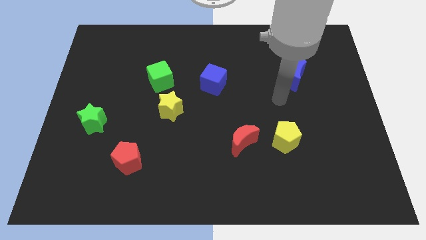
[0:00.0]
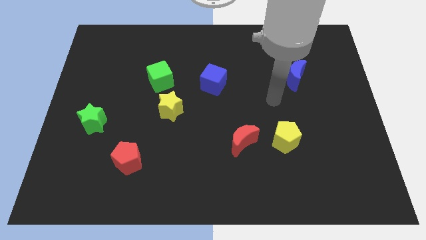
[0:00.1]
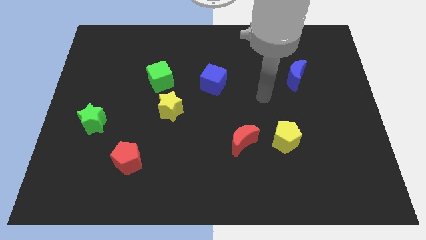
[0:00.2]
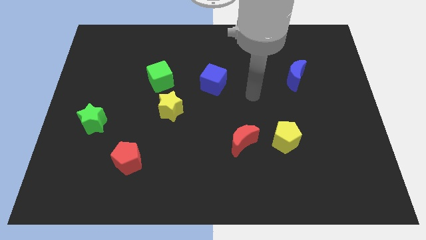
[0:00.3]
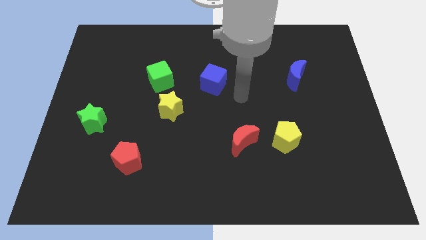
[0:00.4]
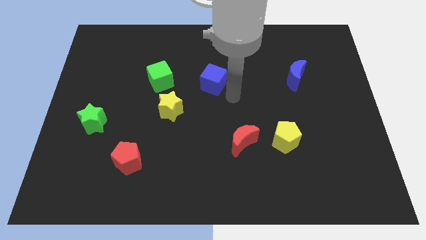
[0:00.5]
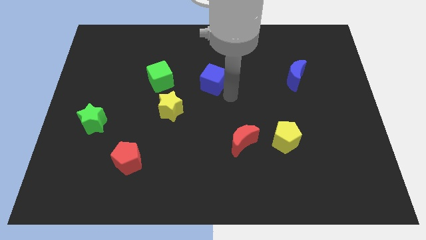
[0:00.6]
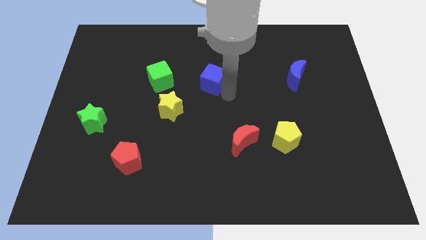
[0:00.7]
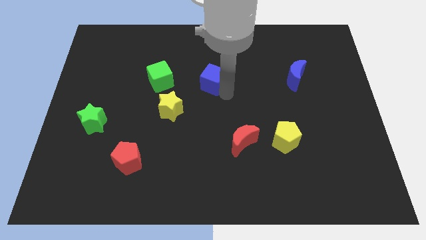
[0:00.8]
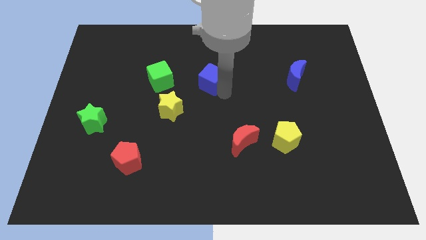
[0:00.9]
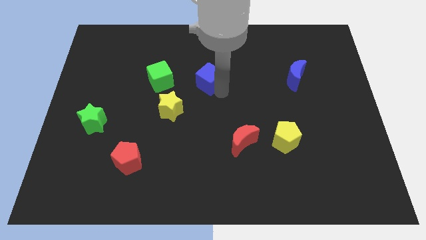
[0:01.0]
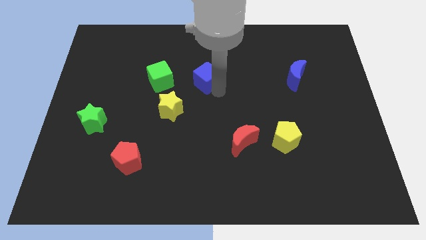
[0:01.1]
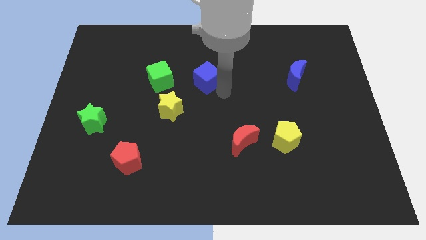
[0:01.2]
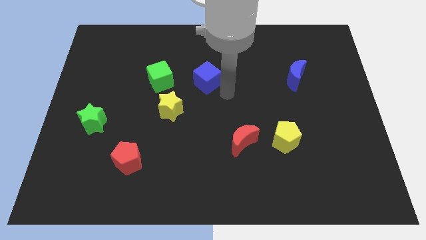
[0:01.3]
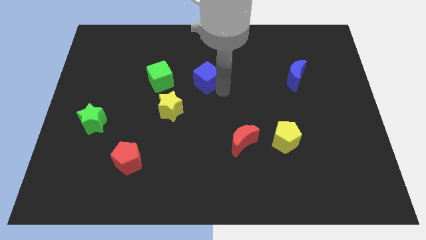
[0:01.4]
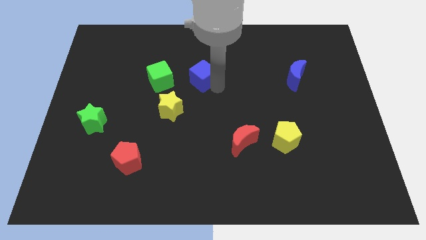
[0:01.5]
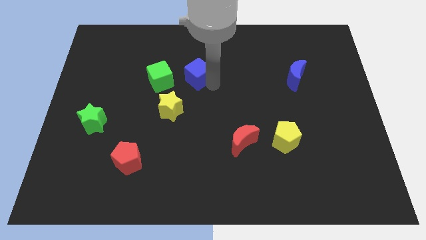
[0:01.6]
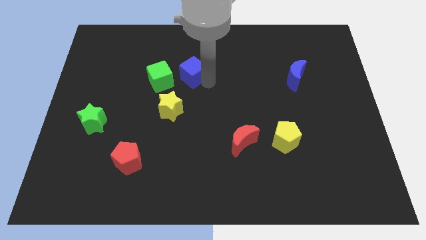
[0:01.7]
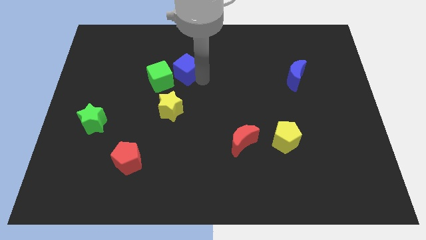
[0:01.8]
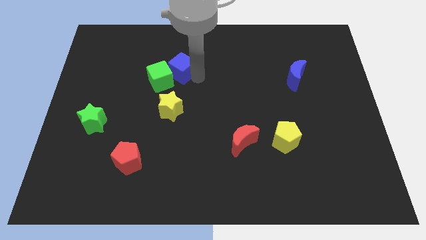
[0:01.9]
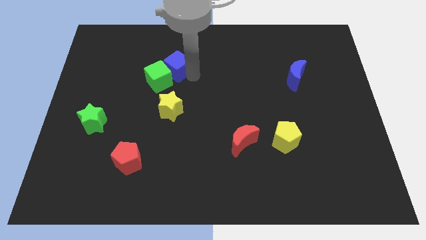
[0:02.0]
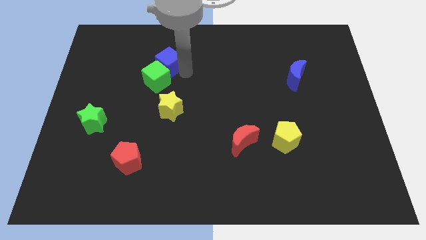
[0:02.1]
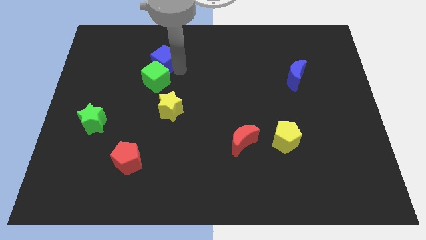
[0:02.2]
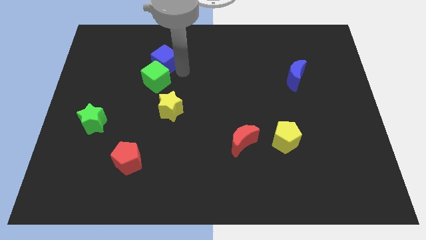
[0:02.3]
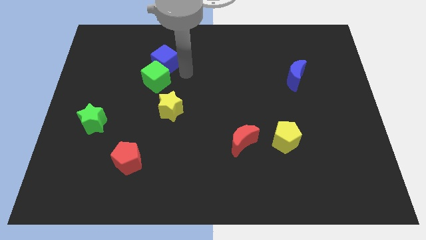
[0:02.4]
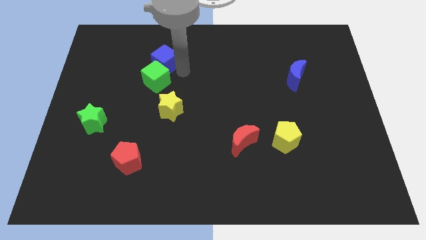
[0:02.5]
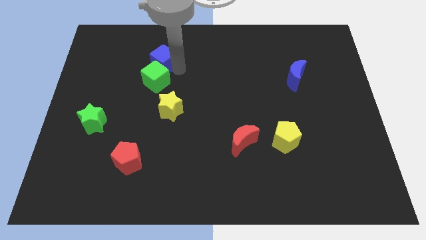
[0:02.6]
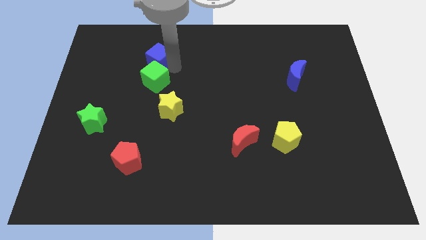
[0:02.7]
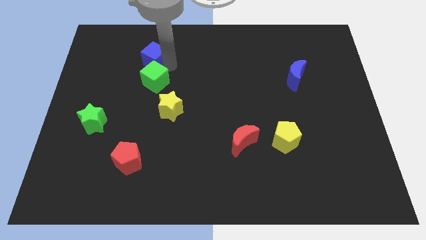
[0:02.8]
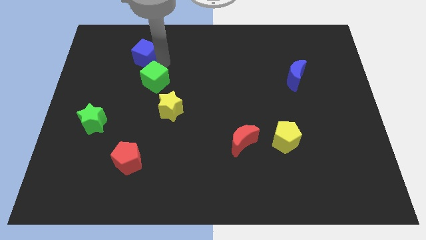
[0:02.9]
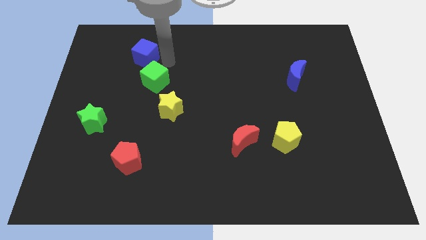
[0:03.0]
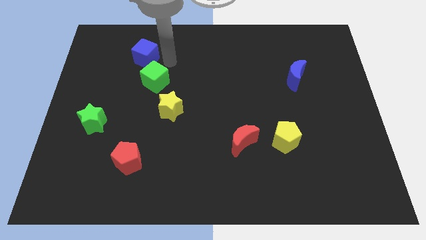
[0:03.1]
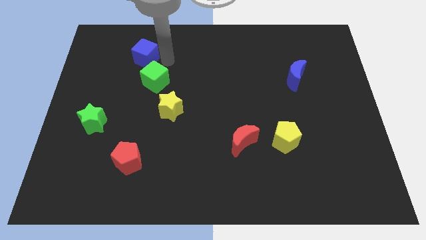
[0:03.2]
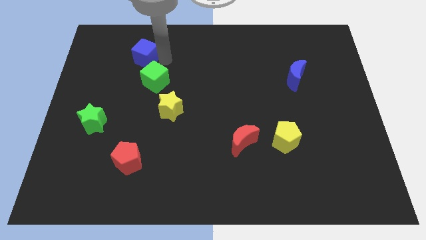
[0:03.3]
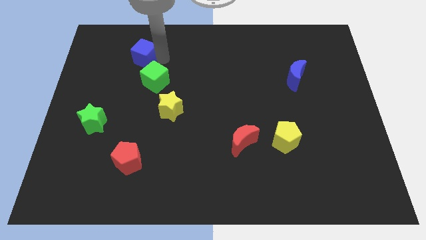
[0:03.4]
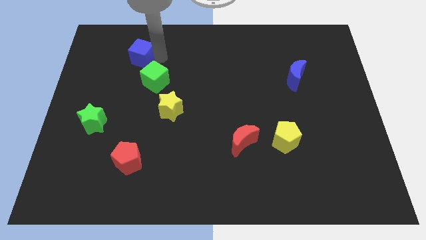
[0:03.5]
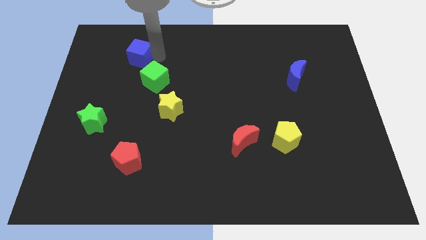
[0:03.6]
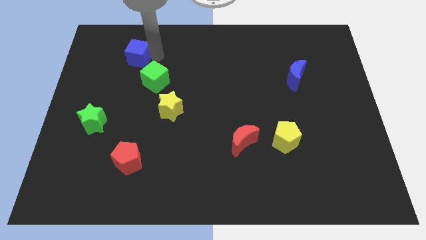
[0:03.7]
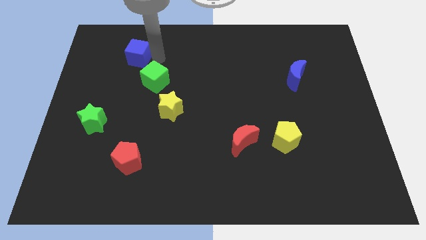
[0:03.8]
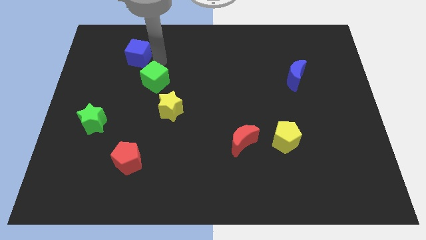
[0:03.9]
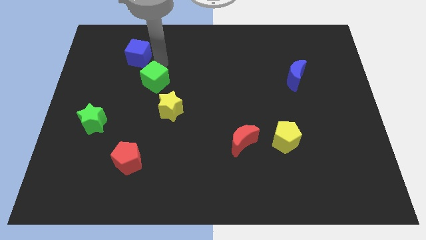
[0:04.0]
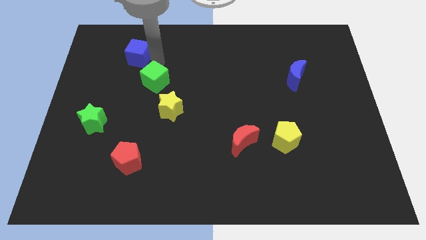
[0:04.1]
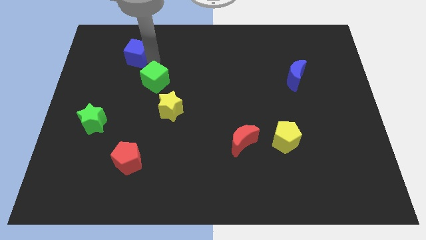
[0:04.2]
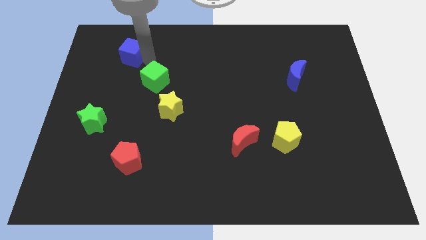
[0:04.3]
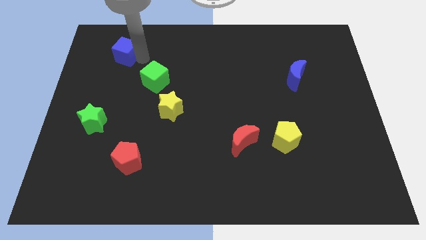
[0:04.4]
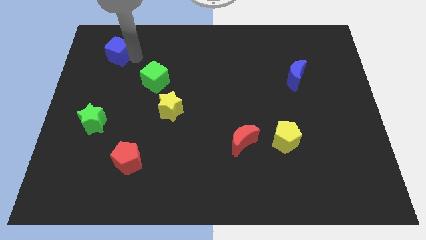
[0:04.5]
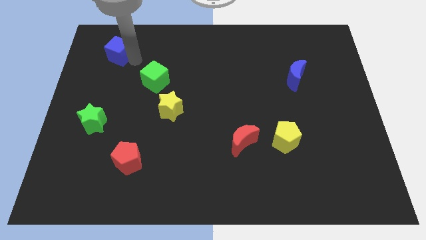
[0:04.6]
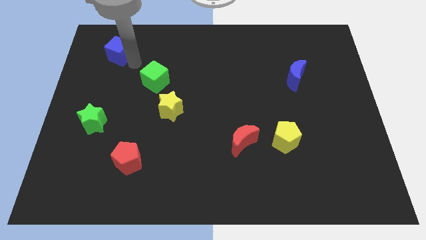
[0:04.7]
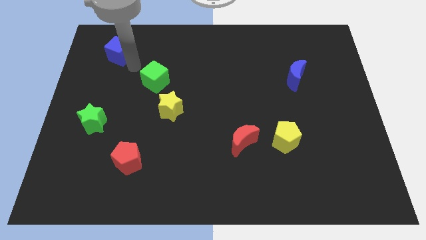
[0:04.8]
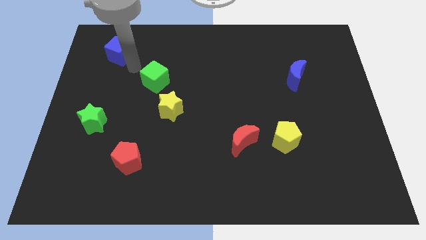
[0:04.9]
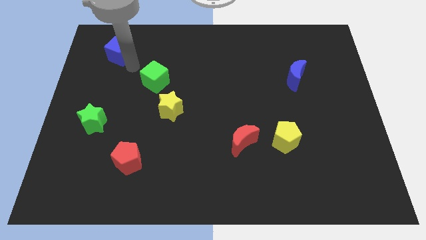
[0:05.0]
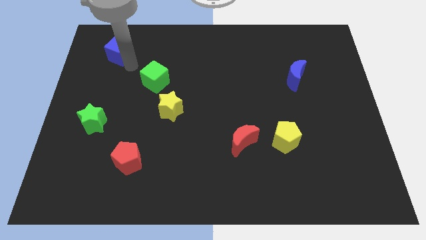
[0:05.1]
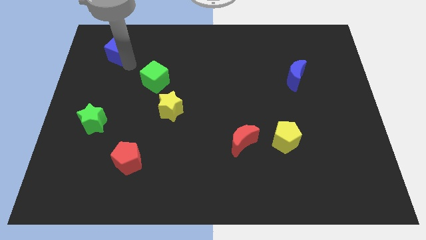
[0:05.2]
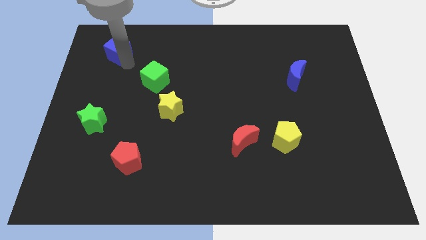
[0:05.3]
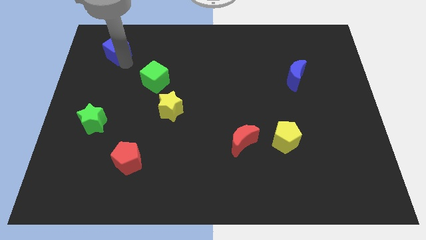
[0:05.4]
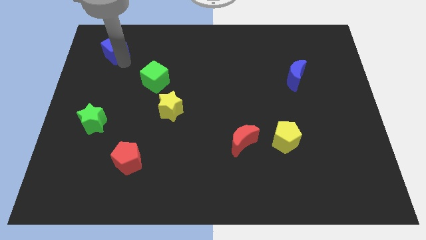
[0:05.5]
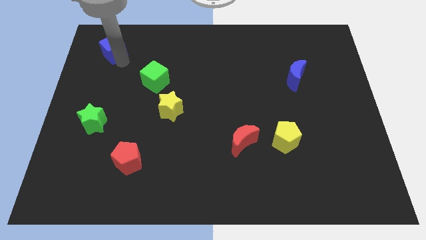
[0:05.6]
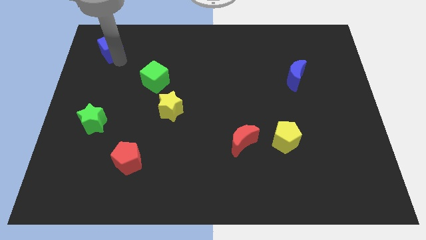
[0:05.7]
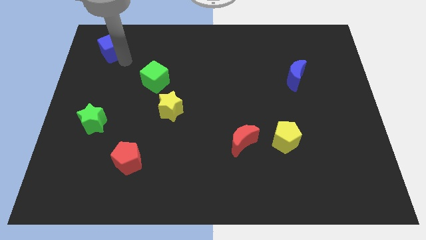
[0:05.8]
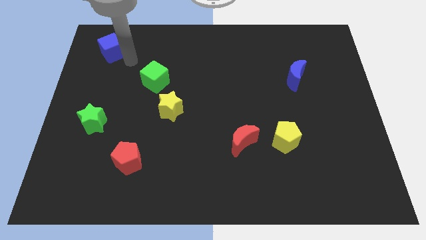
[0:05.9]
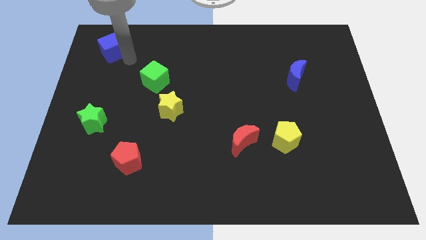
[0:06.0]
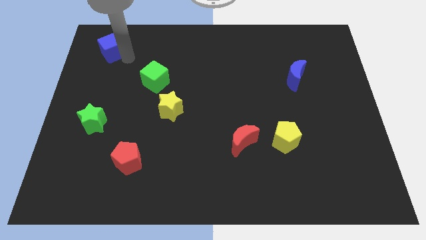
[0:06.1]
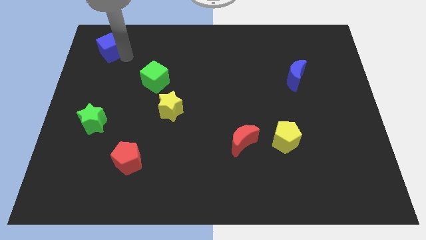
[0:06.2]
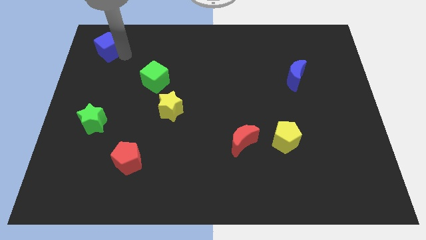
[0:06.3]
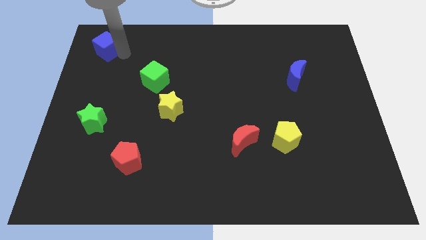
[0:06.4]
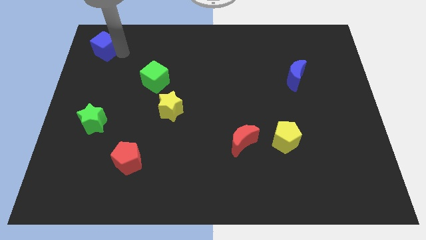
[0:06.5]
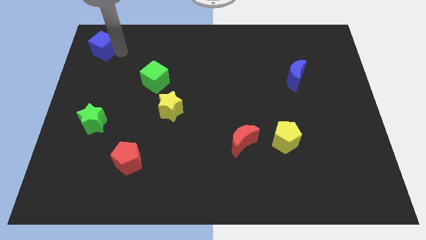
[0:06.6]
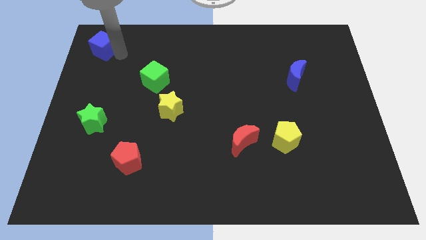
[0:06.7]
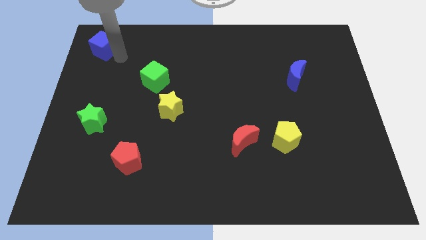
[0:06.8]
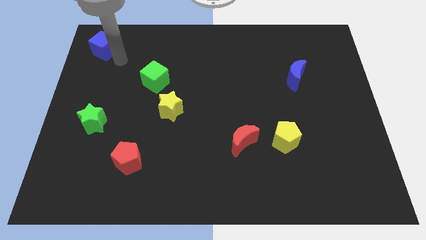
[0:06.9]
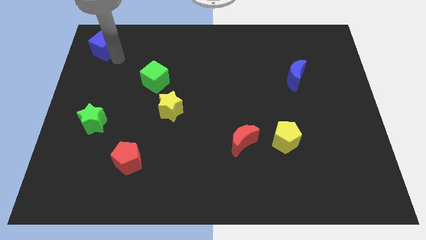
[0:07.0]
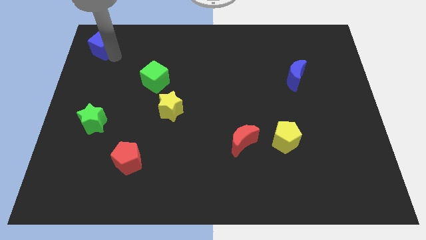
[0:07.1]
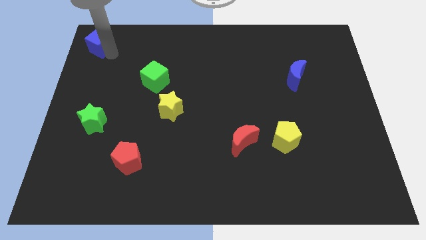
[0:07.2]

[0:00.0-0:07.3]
move the blue cube to the top left corner
